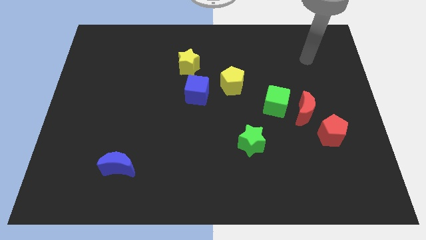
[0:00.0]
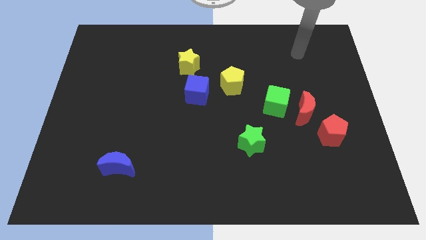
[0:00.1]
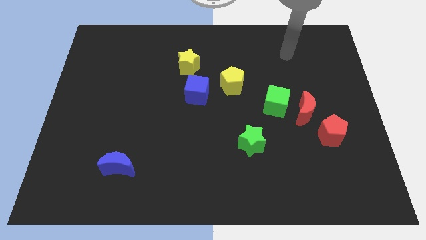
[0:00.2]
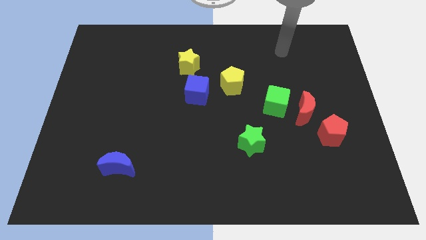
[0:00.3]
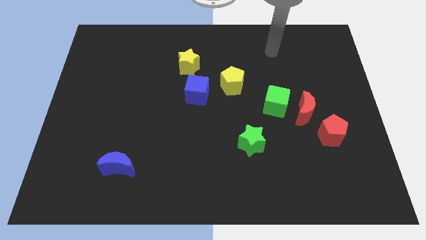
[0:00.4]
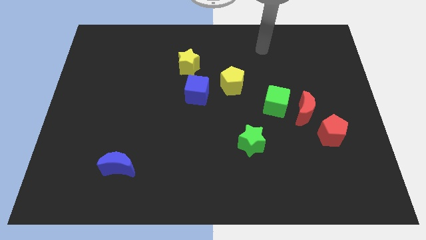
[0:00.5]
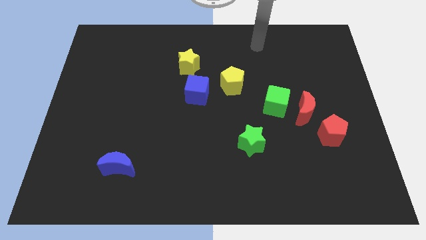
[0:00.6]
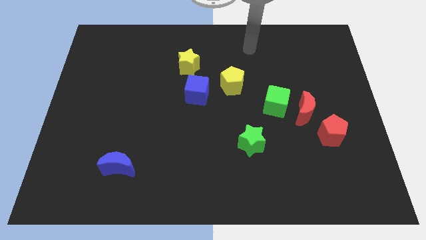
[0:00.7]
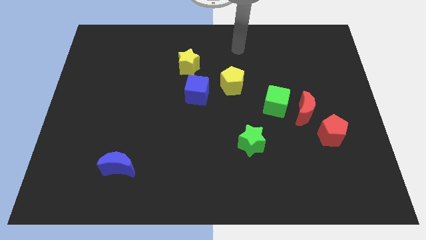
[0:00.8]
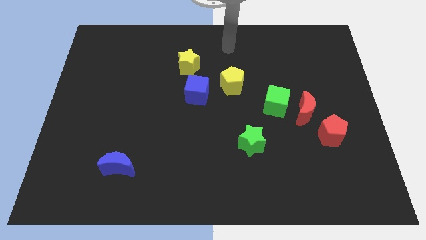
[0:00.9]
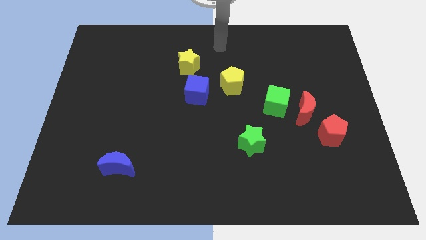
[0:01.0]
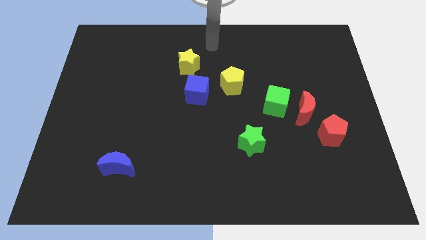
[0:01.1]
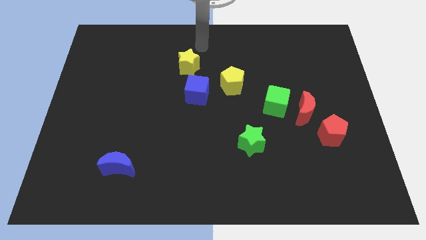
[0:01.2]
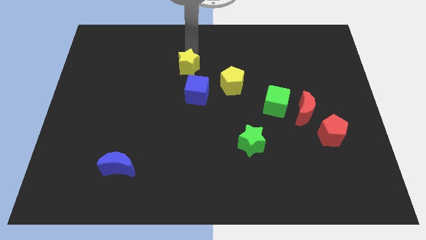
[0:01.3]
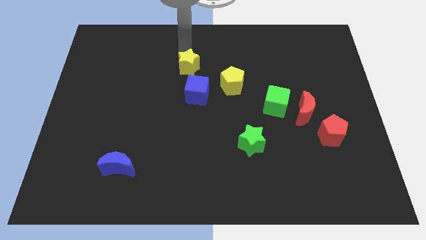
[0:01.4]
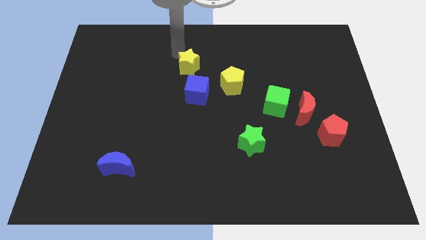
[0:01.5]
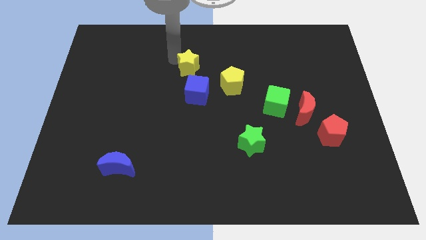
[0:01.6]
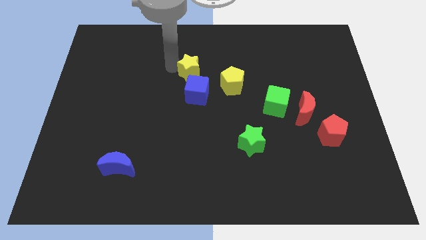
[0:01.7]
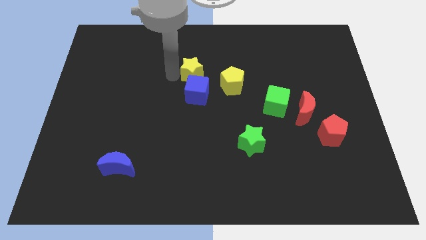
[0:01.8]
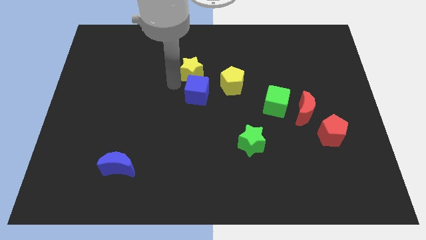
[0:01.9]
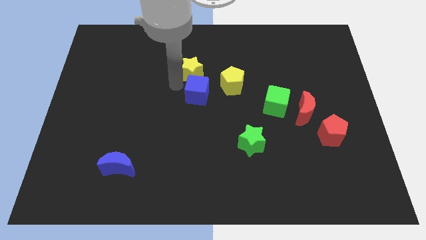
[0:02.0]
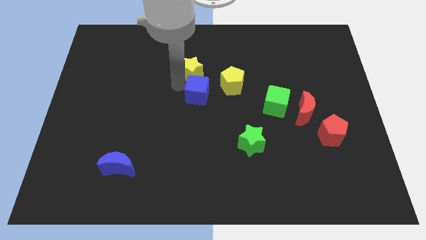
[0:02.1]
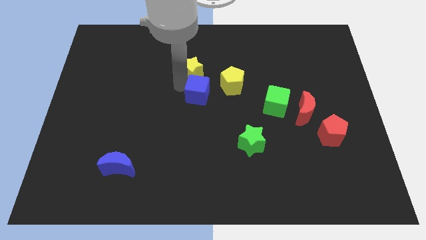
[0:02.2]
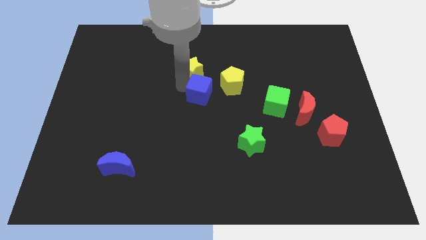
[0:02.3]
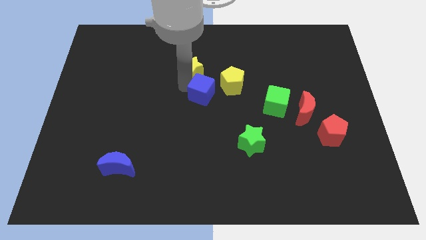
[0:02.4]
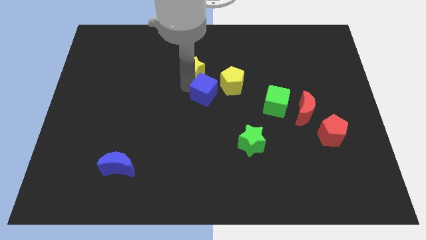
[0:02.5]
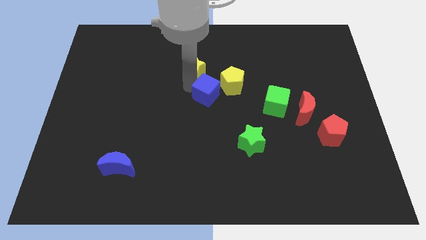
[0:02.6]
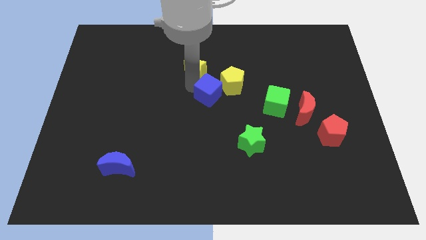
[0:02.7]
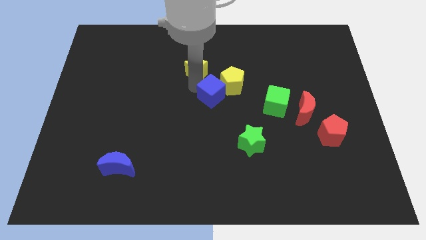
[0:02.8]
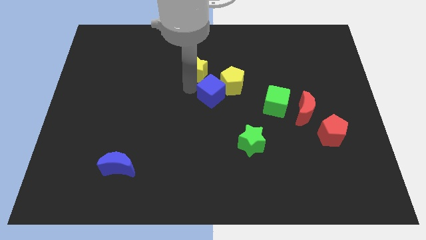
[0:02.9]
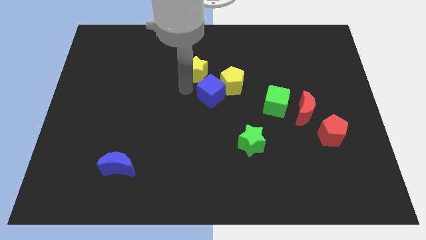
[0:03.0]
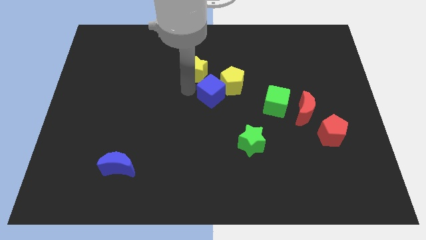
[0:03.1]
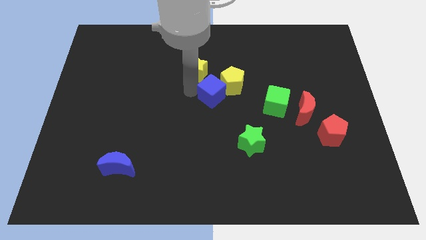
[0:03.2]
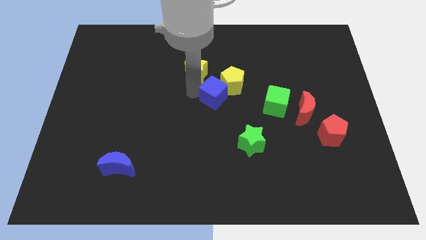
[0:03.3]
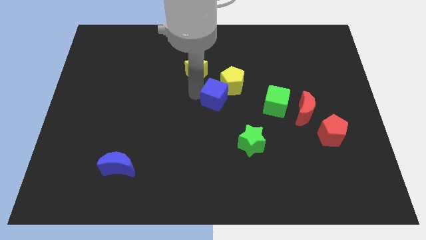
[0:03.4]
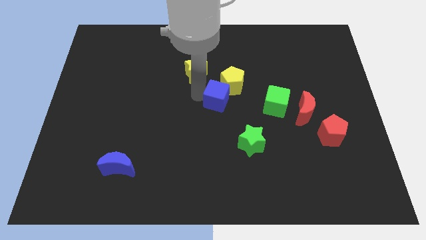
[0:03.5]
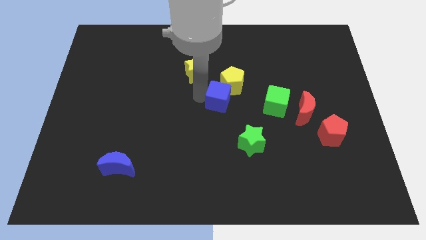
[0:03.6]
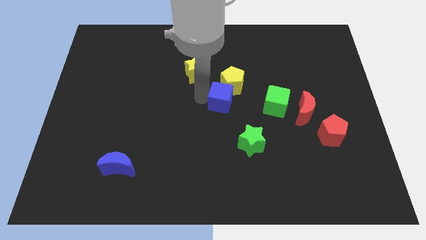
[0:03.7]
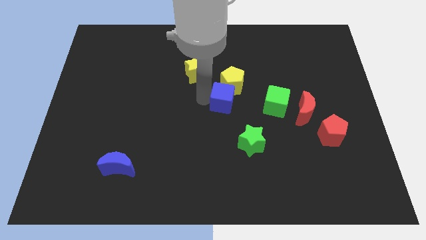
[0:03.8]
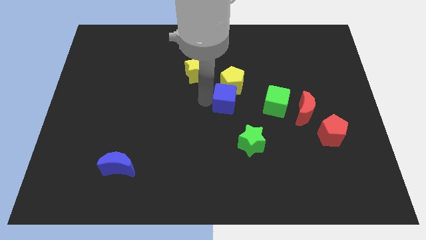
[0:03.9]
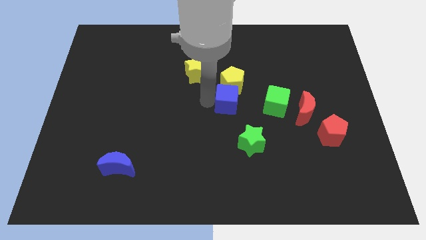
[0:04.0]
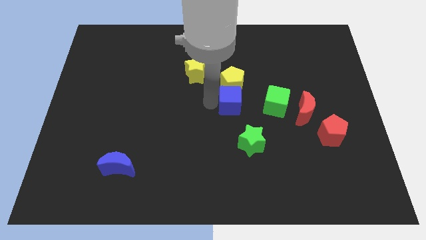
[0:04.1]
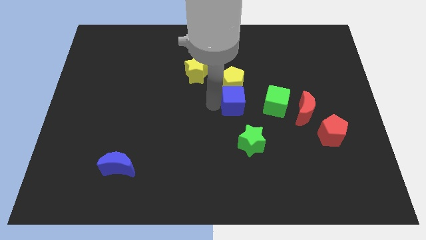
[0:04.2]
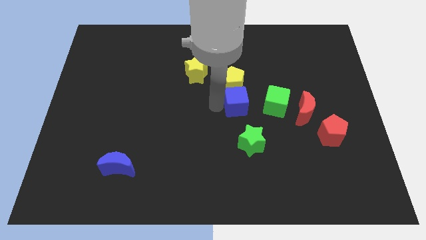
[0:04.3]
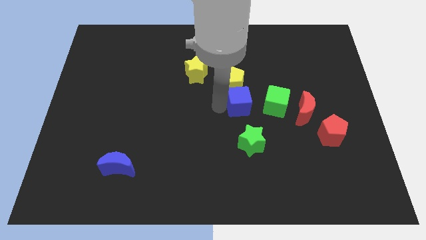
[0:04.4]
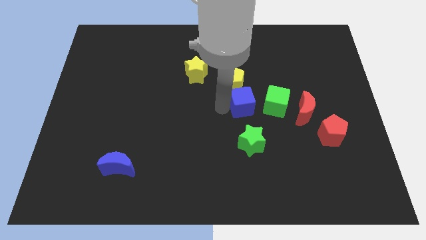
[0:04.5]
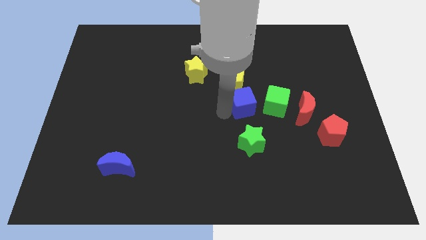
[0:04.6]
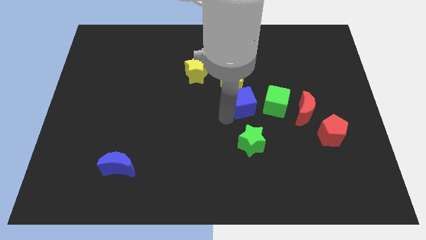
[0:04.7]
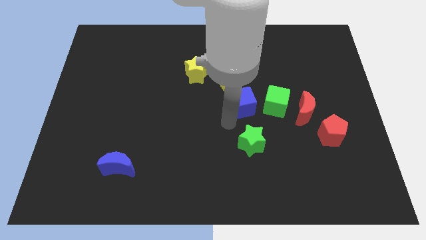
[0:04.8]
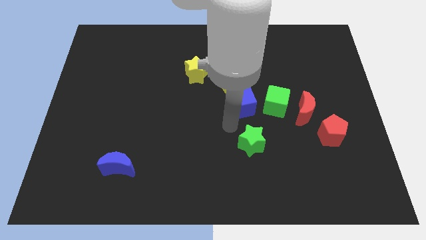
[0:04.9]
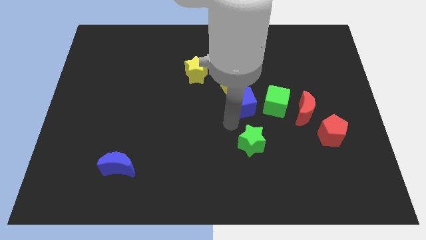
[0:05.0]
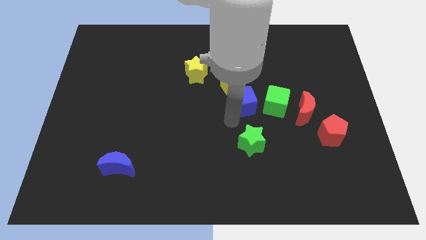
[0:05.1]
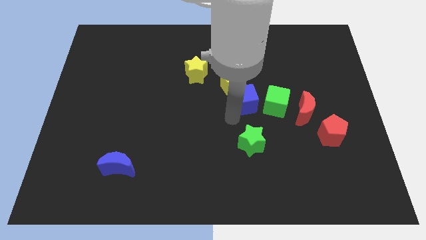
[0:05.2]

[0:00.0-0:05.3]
push the blue cube diagonally up and to the left of the green cube

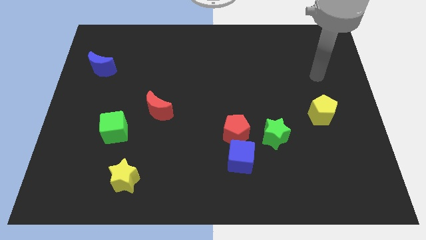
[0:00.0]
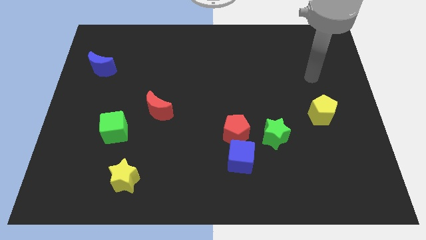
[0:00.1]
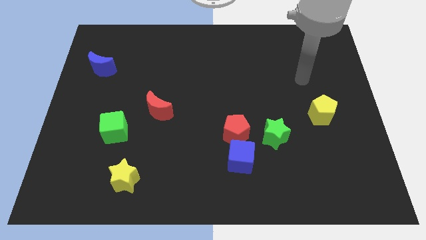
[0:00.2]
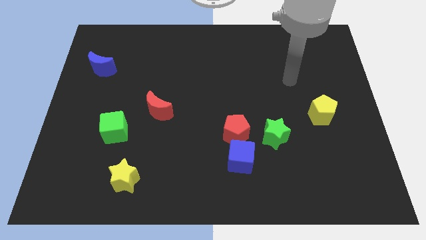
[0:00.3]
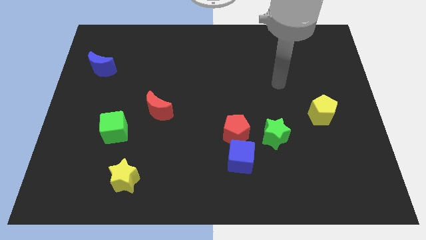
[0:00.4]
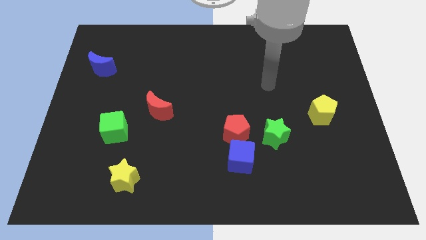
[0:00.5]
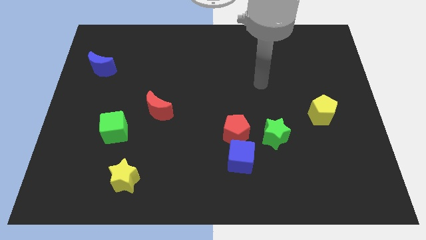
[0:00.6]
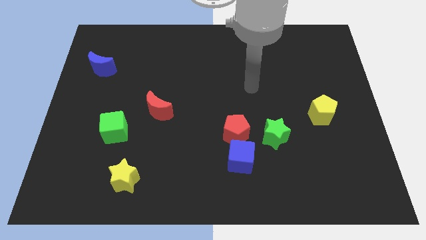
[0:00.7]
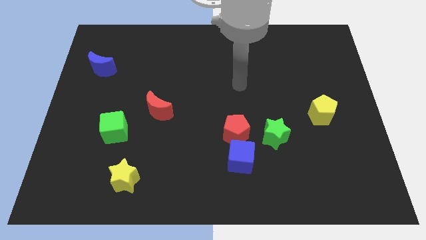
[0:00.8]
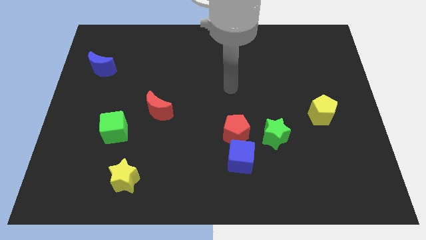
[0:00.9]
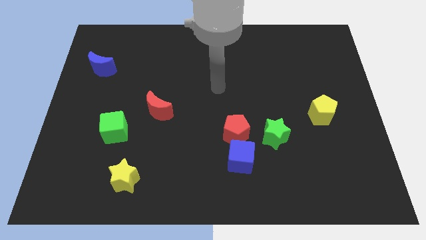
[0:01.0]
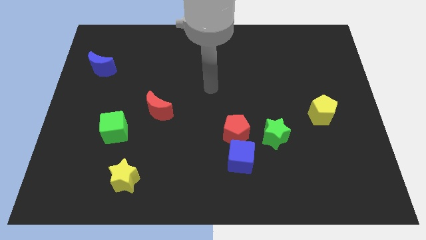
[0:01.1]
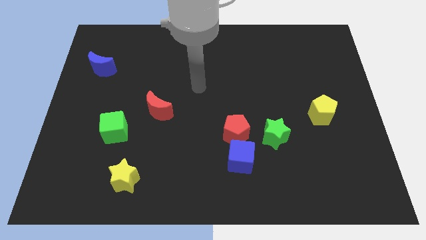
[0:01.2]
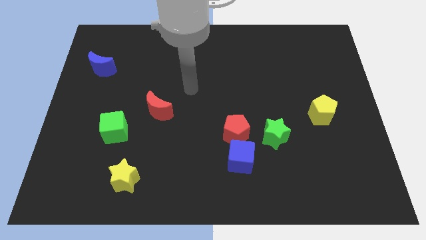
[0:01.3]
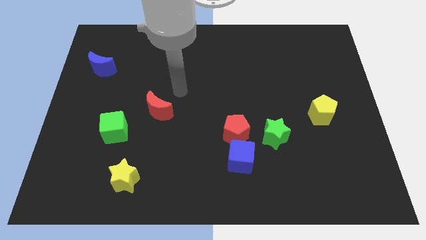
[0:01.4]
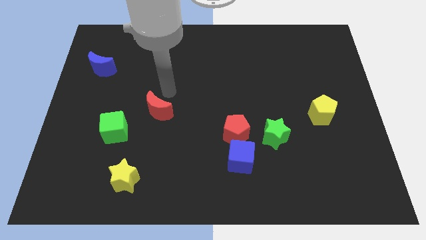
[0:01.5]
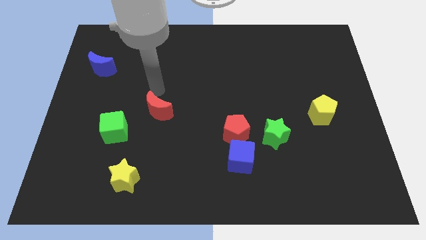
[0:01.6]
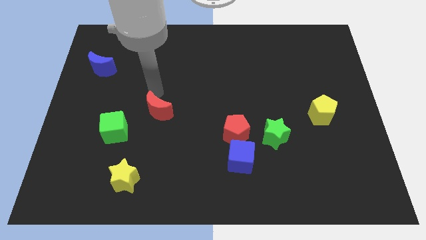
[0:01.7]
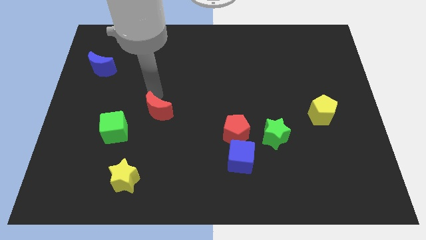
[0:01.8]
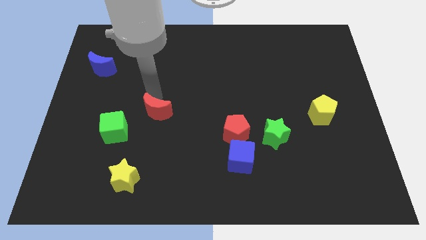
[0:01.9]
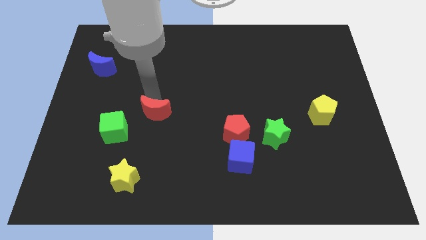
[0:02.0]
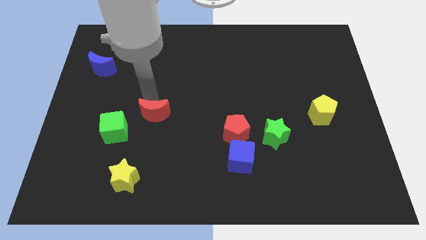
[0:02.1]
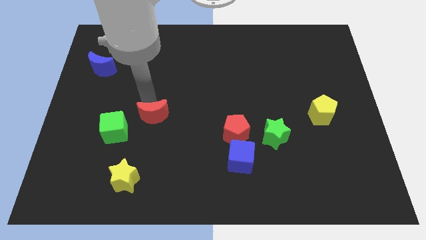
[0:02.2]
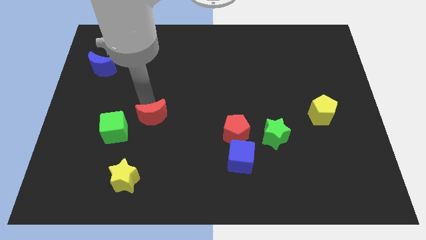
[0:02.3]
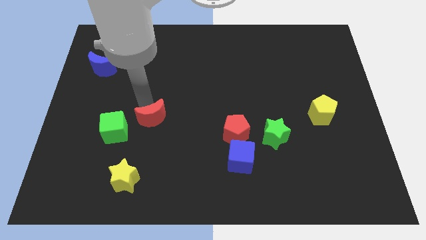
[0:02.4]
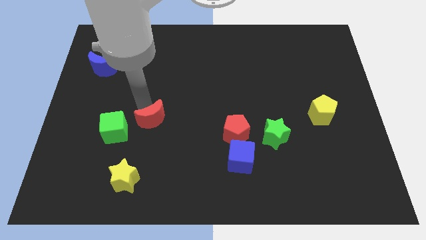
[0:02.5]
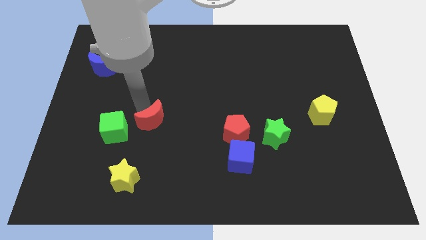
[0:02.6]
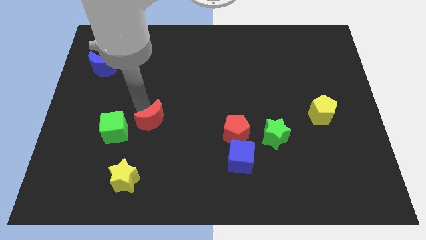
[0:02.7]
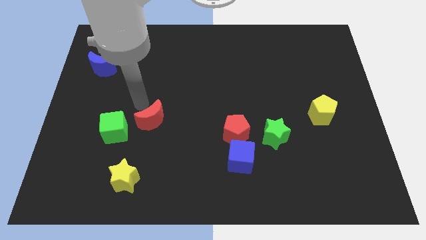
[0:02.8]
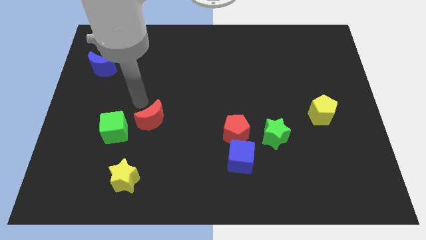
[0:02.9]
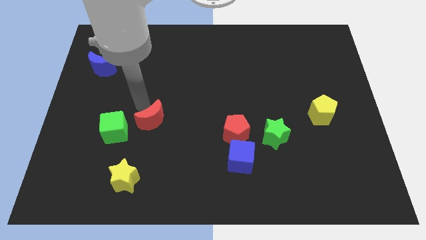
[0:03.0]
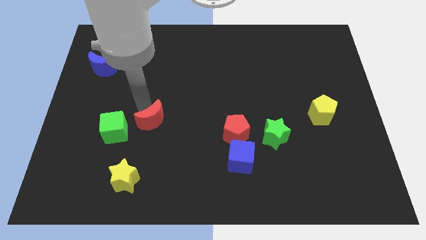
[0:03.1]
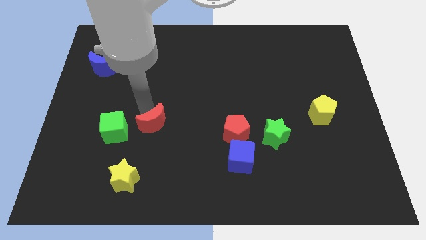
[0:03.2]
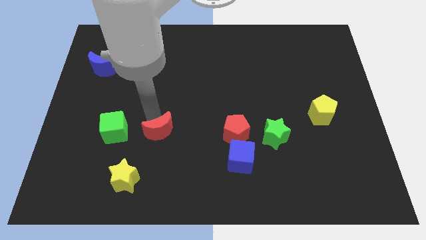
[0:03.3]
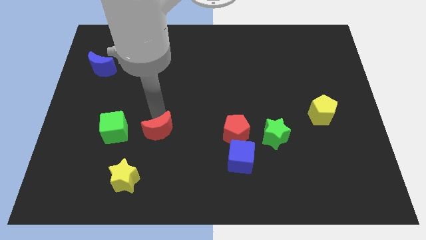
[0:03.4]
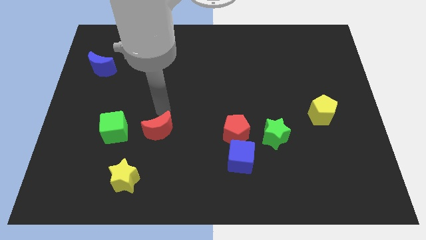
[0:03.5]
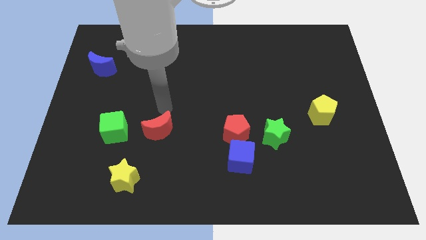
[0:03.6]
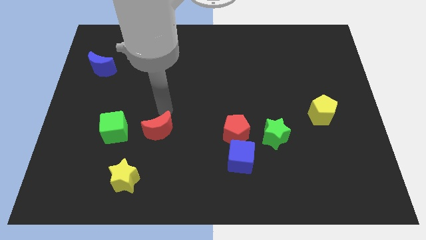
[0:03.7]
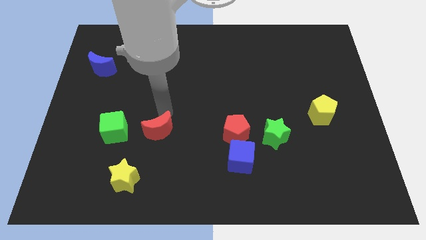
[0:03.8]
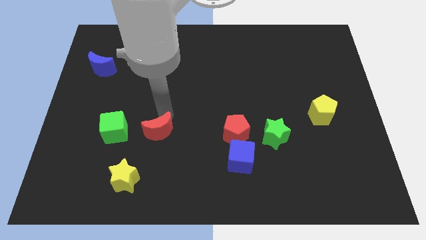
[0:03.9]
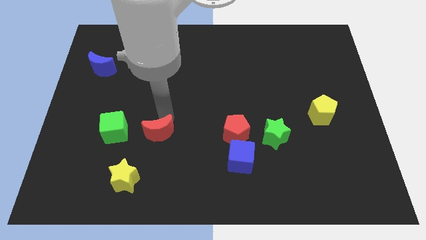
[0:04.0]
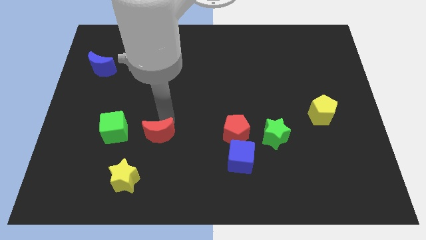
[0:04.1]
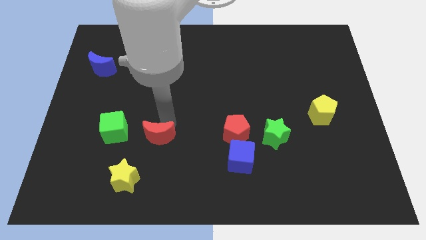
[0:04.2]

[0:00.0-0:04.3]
put the red moon diagonally up and to the right of the yellow star
